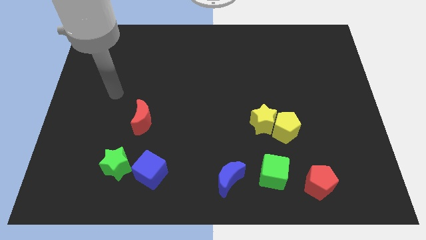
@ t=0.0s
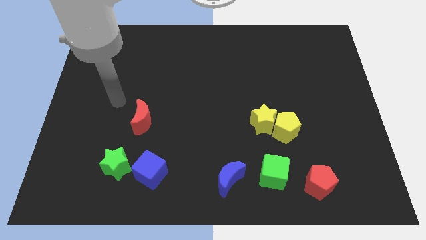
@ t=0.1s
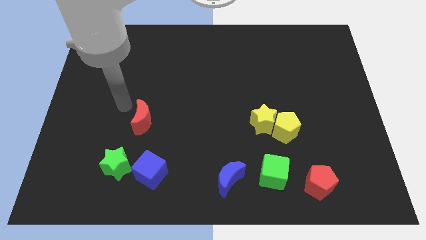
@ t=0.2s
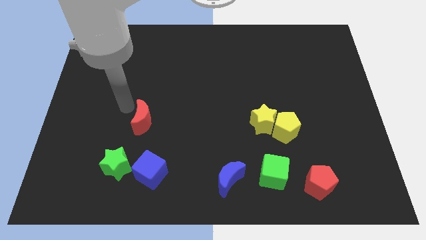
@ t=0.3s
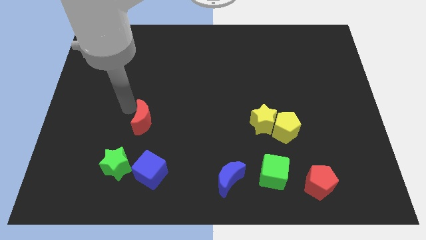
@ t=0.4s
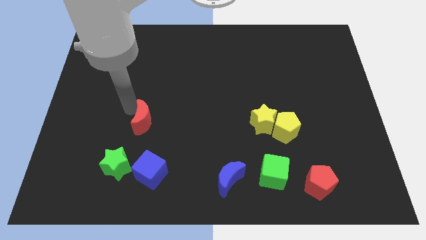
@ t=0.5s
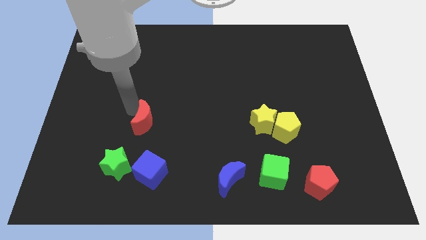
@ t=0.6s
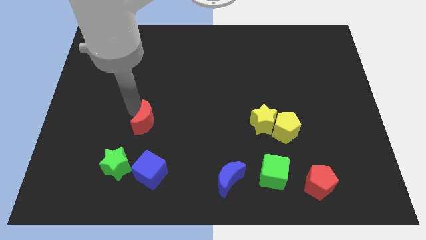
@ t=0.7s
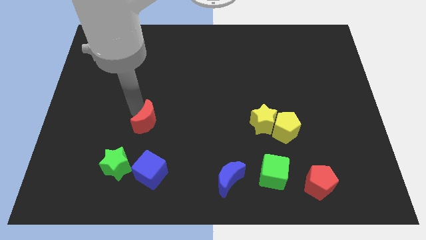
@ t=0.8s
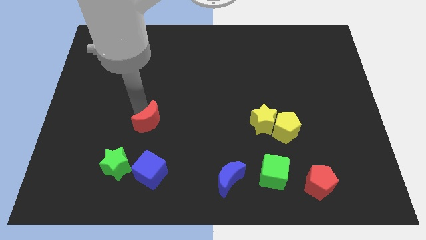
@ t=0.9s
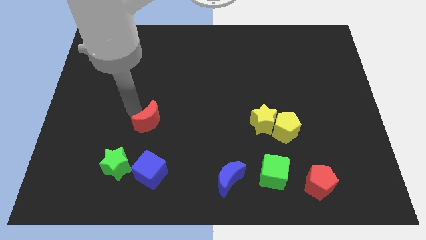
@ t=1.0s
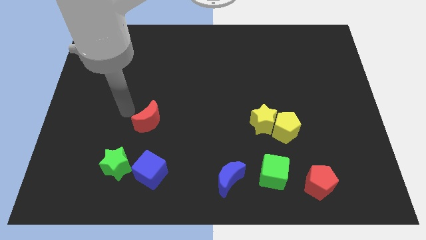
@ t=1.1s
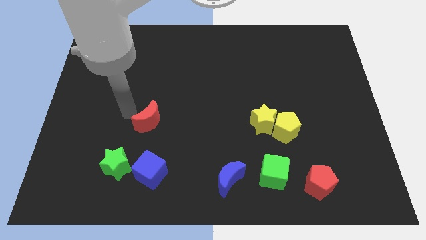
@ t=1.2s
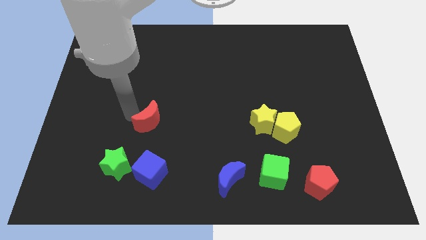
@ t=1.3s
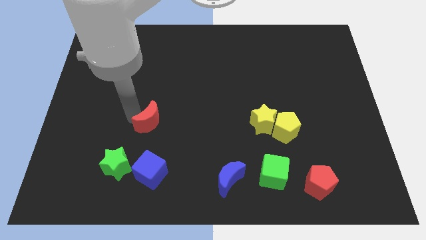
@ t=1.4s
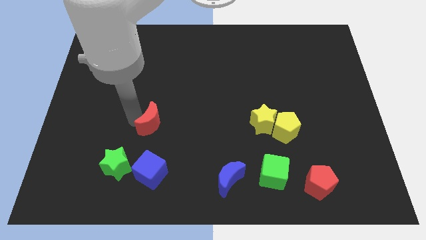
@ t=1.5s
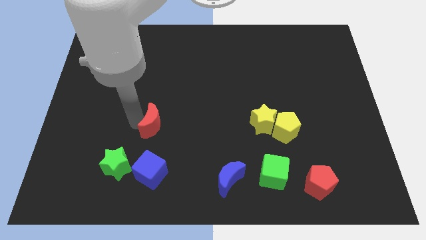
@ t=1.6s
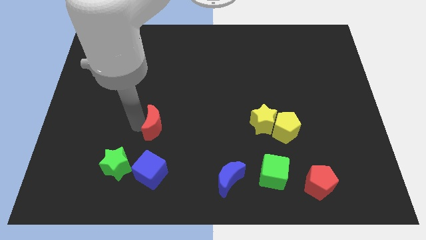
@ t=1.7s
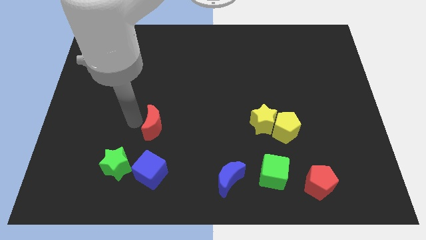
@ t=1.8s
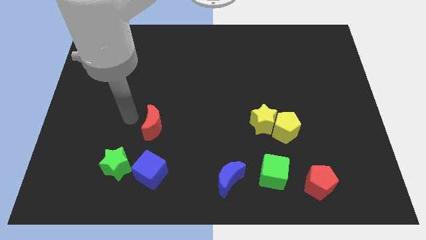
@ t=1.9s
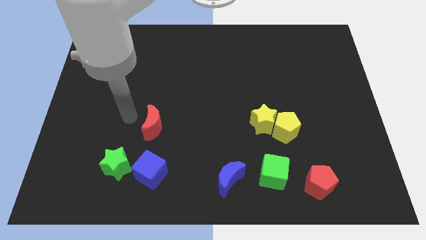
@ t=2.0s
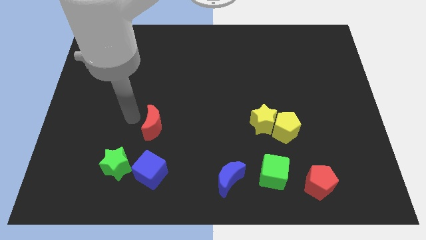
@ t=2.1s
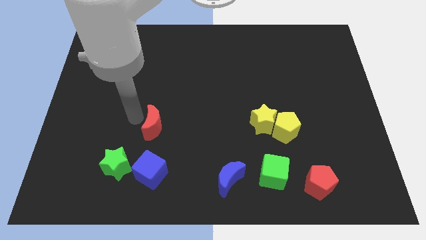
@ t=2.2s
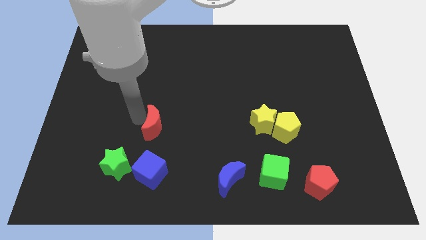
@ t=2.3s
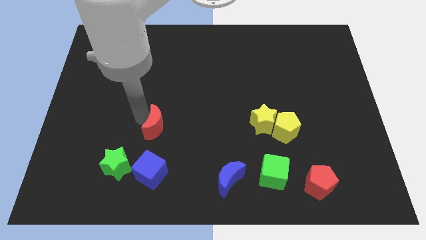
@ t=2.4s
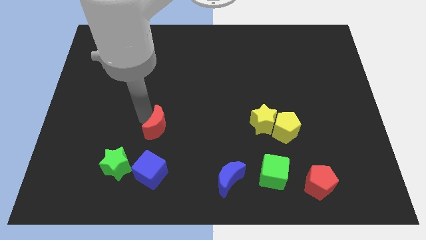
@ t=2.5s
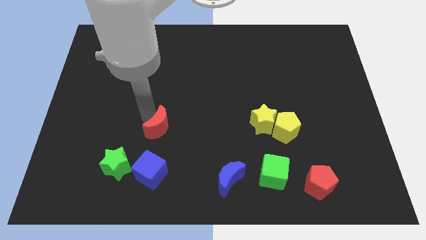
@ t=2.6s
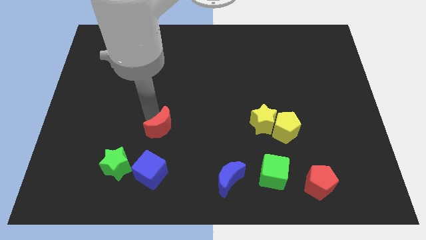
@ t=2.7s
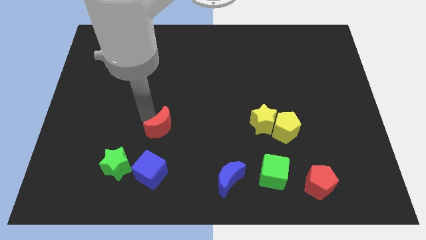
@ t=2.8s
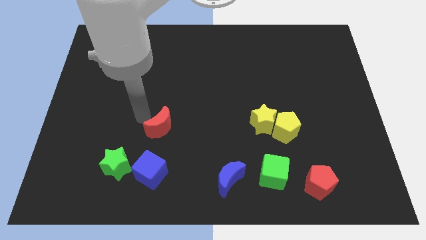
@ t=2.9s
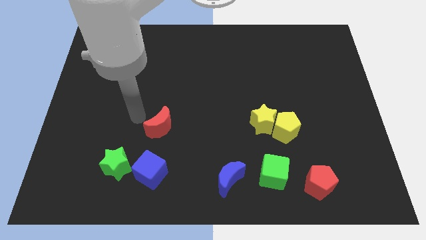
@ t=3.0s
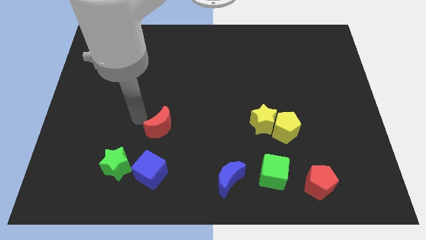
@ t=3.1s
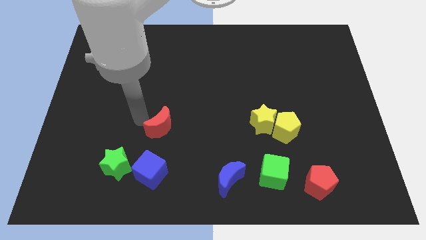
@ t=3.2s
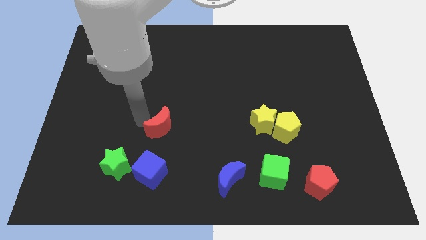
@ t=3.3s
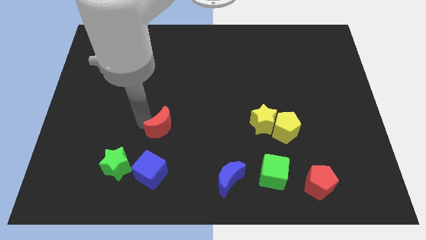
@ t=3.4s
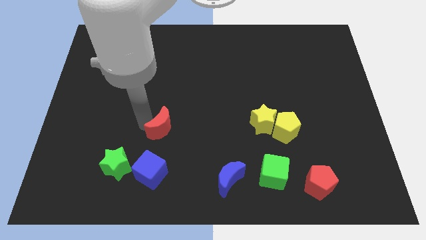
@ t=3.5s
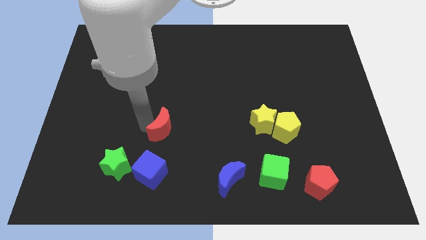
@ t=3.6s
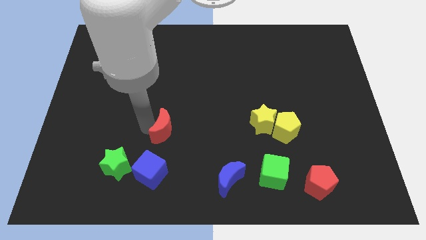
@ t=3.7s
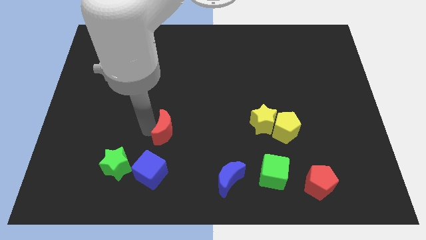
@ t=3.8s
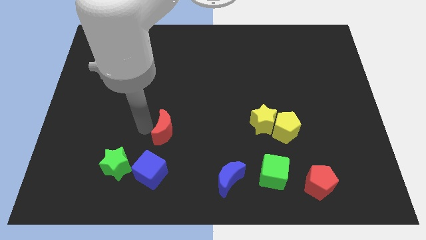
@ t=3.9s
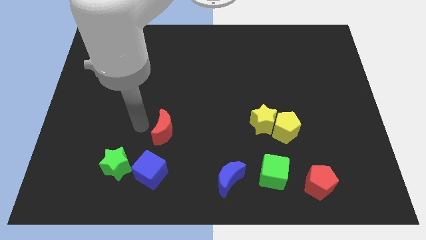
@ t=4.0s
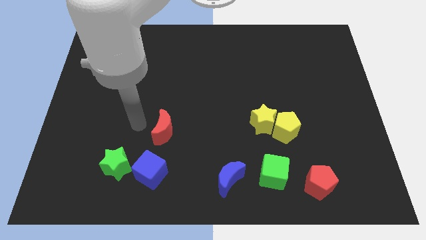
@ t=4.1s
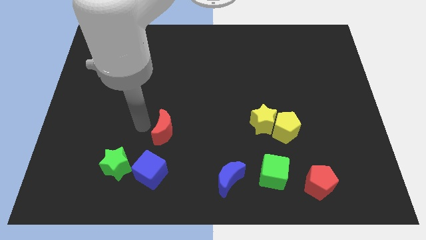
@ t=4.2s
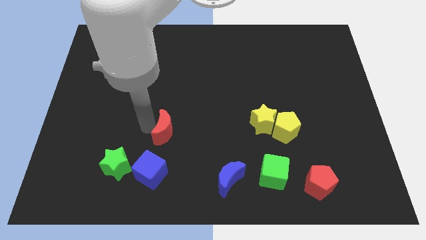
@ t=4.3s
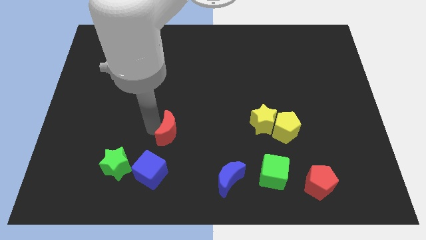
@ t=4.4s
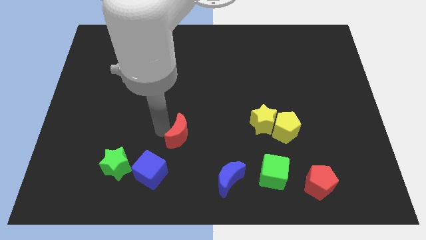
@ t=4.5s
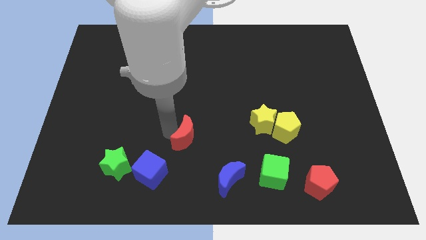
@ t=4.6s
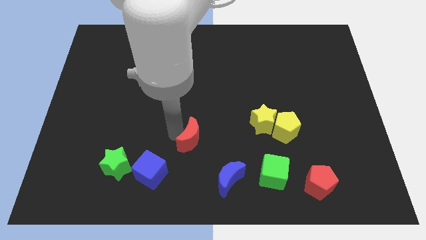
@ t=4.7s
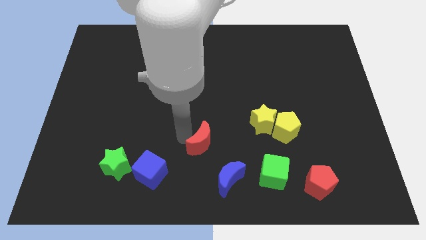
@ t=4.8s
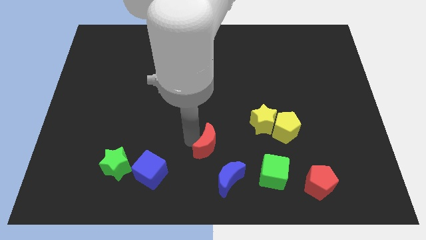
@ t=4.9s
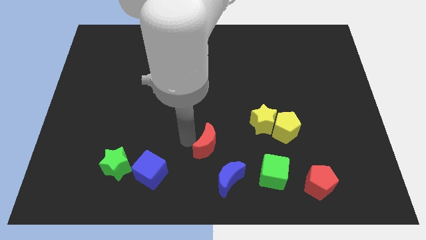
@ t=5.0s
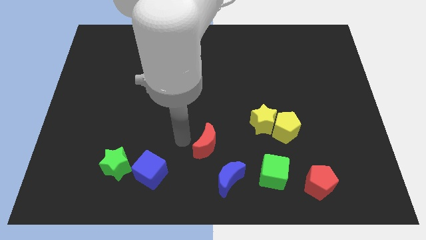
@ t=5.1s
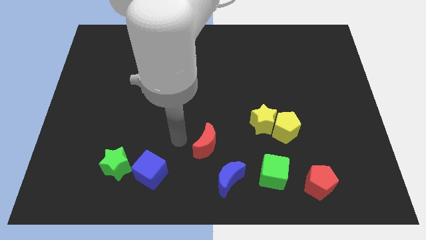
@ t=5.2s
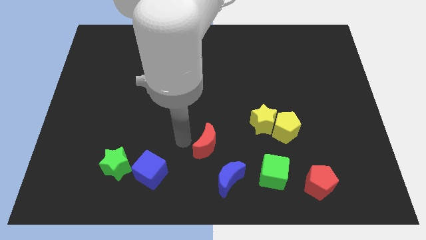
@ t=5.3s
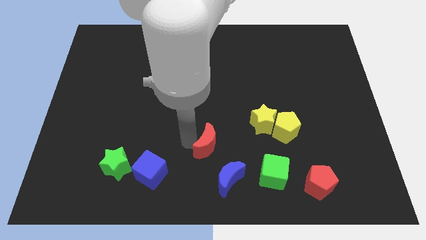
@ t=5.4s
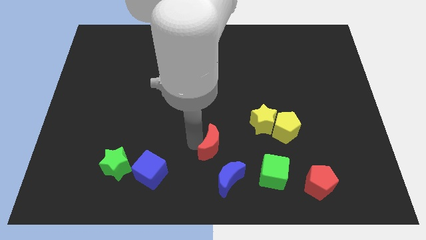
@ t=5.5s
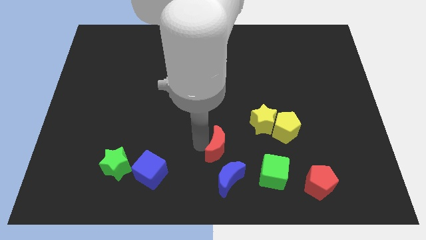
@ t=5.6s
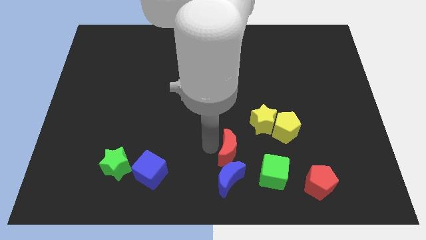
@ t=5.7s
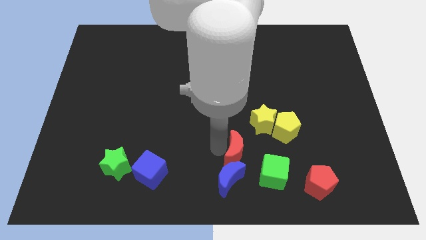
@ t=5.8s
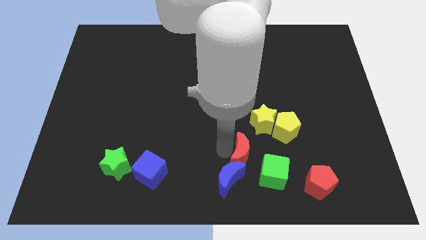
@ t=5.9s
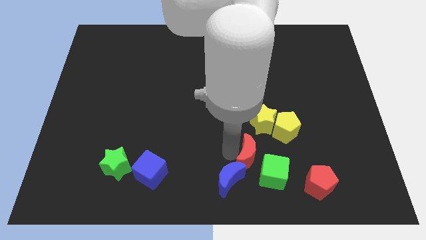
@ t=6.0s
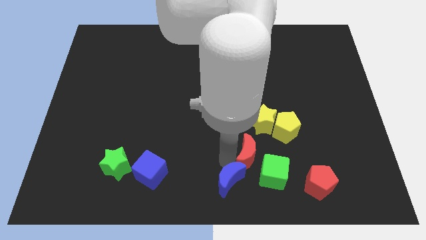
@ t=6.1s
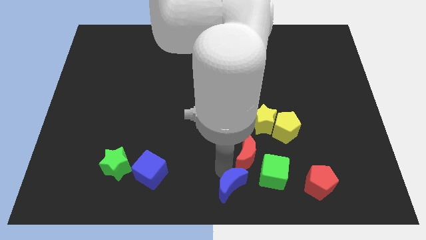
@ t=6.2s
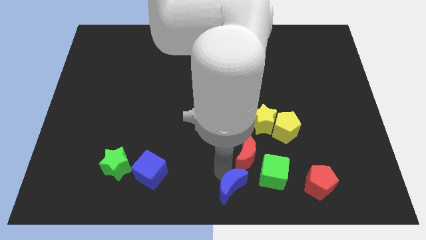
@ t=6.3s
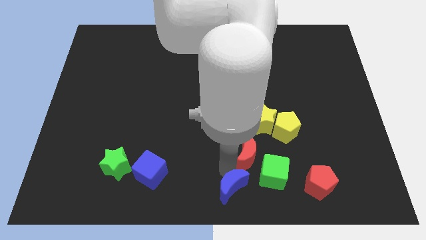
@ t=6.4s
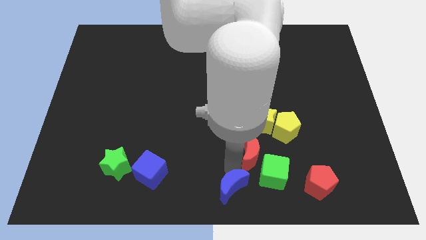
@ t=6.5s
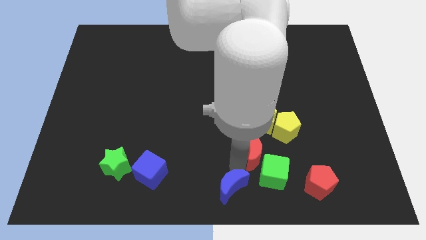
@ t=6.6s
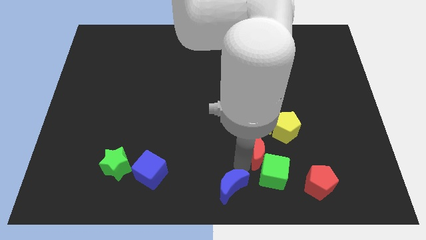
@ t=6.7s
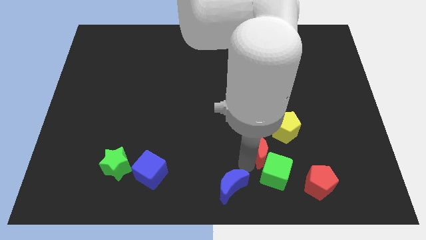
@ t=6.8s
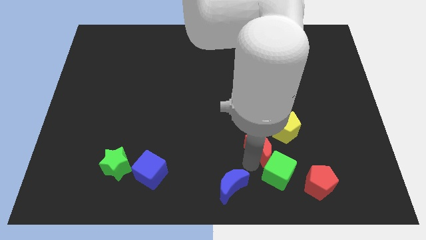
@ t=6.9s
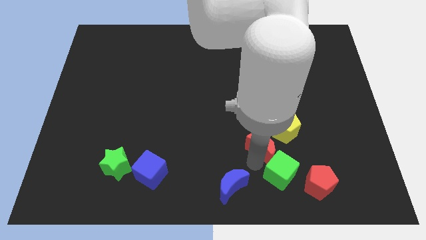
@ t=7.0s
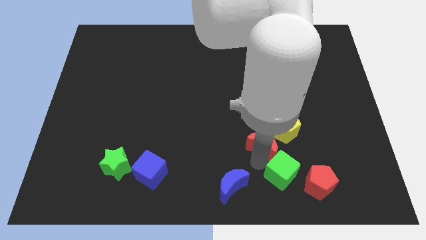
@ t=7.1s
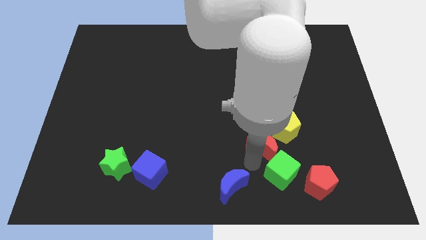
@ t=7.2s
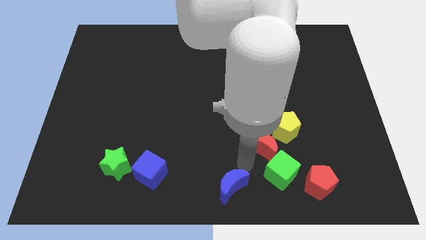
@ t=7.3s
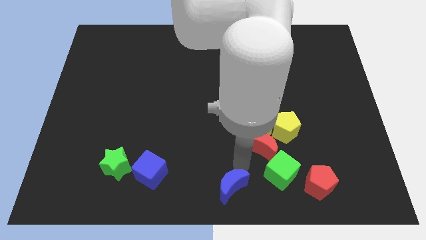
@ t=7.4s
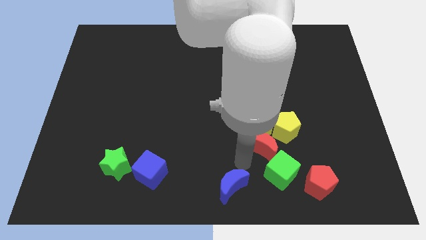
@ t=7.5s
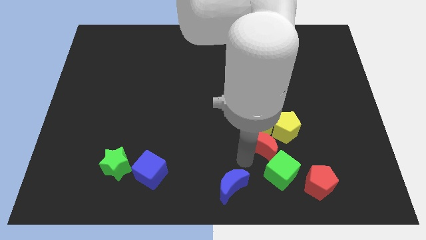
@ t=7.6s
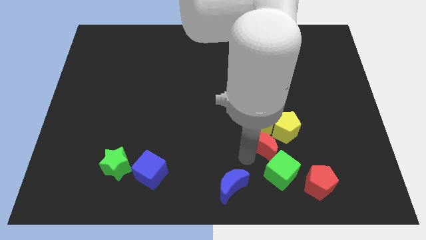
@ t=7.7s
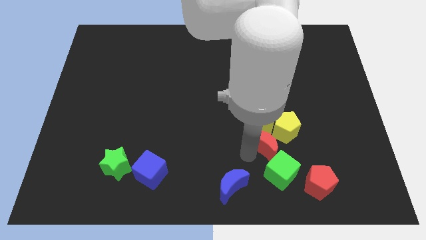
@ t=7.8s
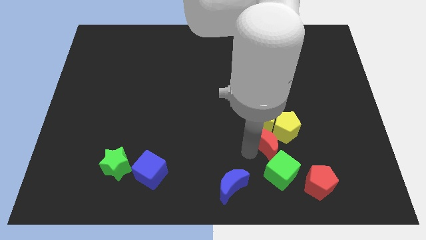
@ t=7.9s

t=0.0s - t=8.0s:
move the red moon to the yellow pentagon
